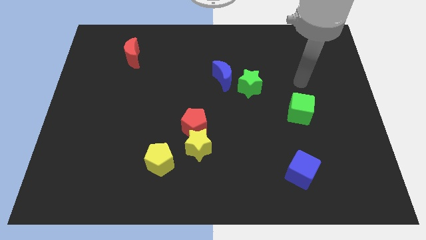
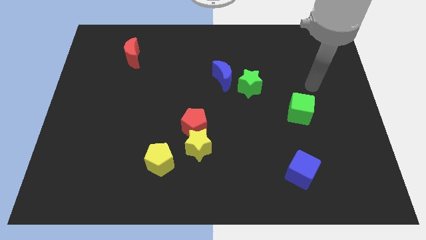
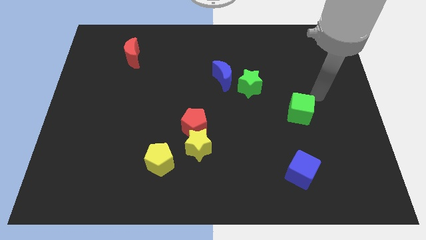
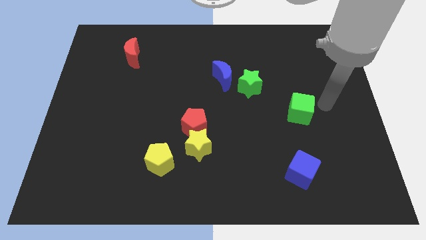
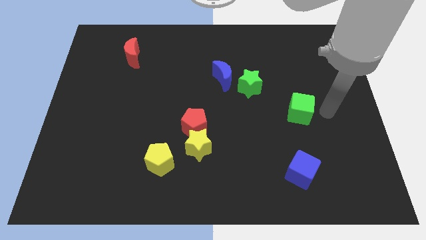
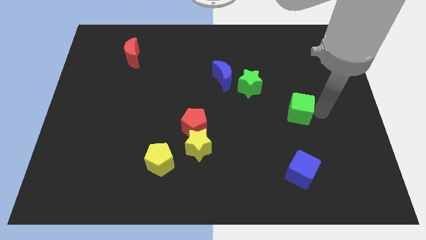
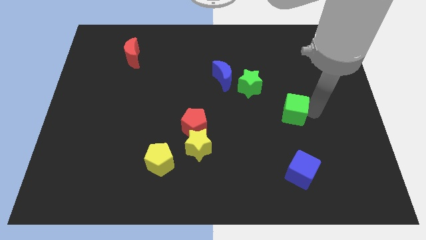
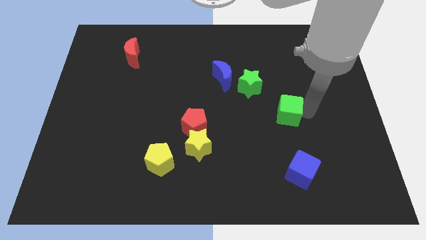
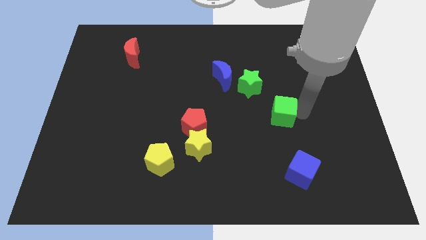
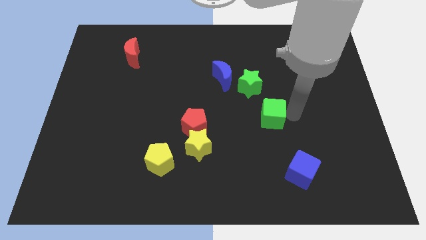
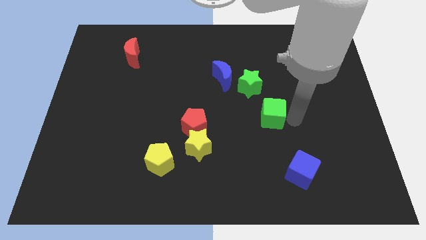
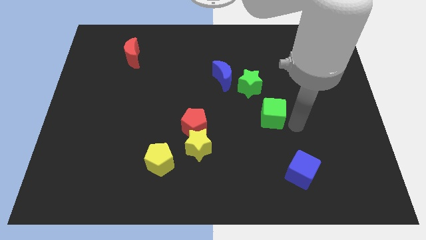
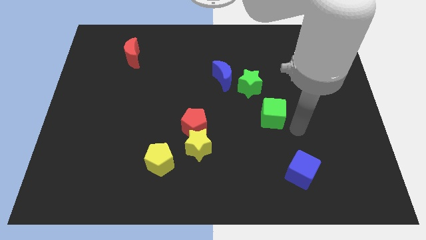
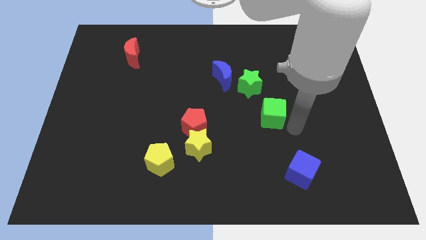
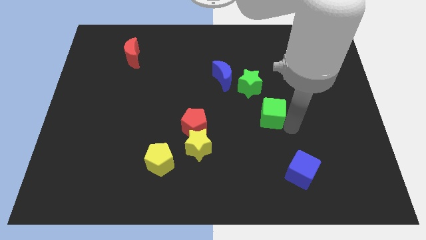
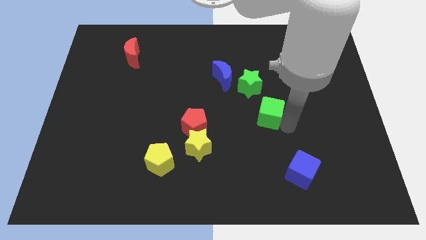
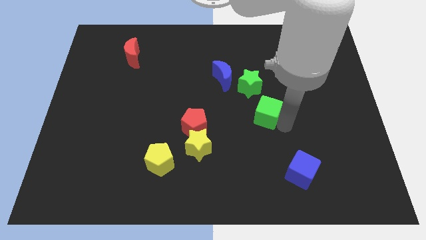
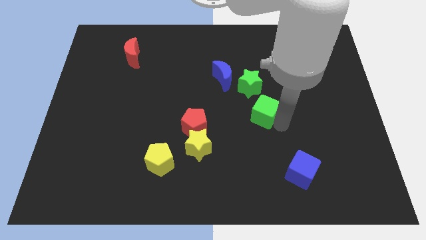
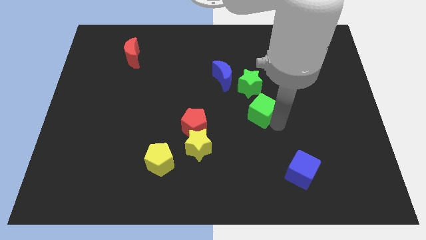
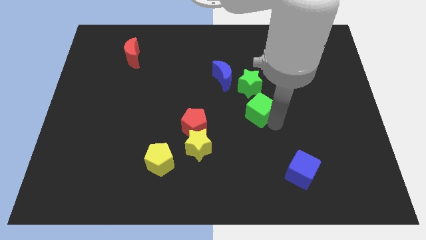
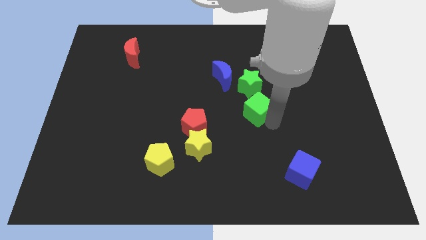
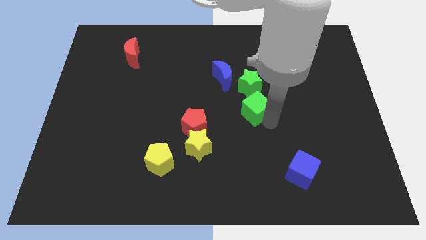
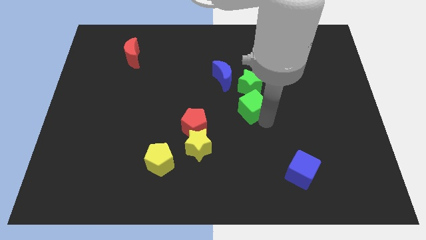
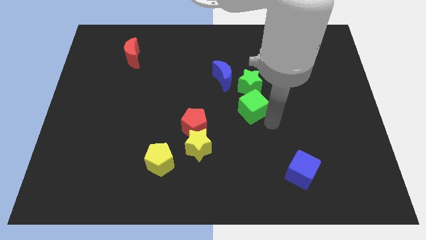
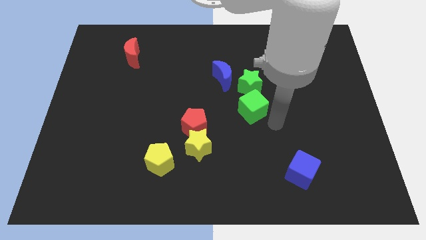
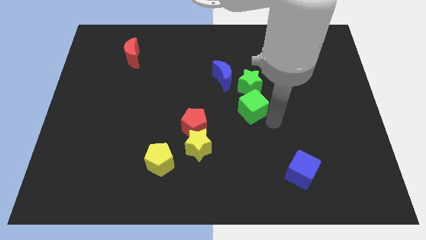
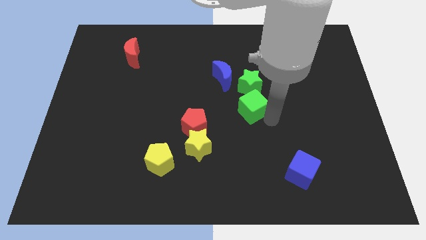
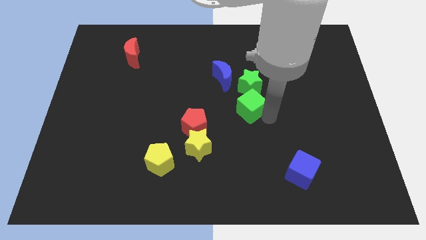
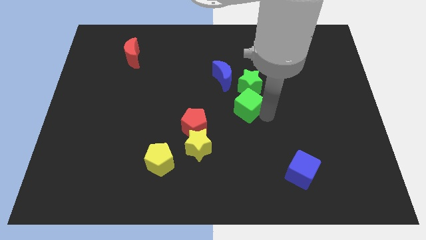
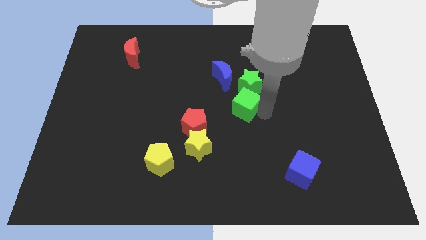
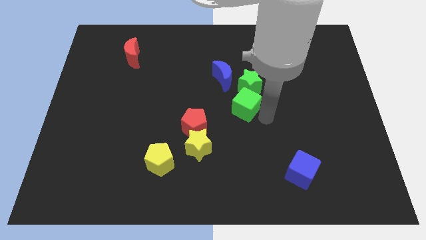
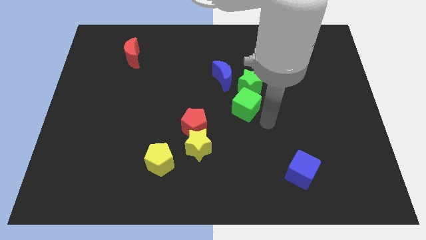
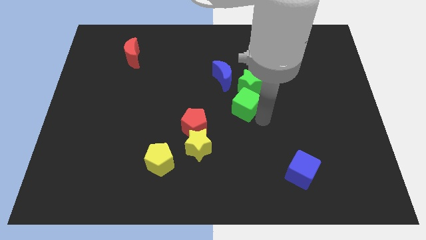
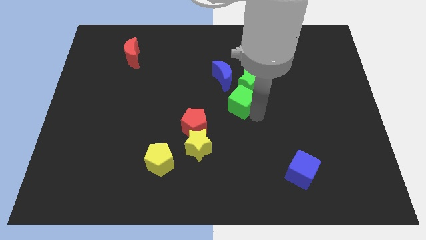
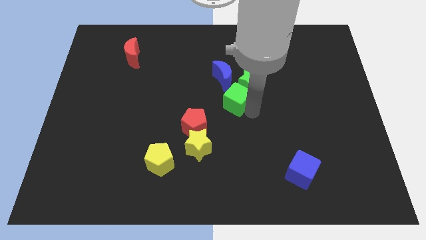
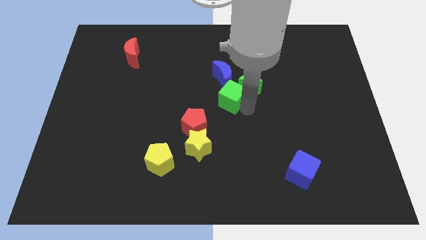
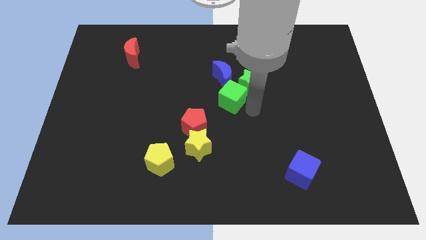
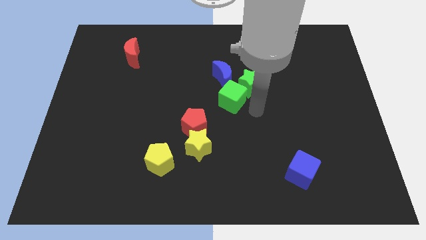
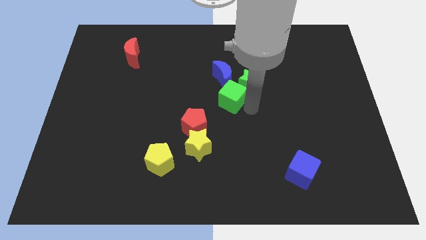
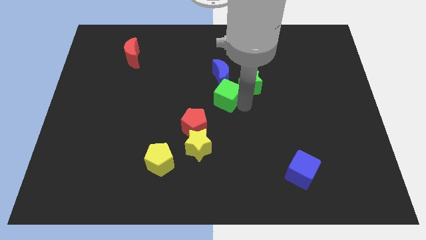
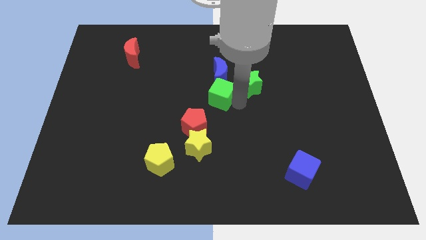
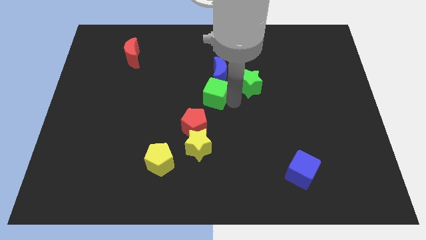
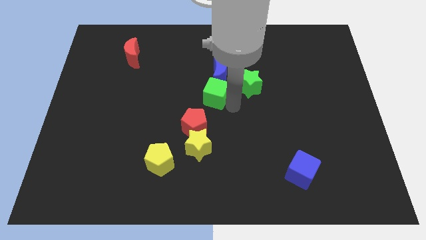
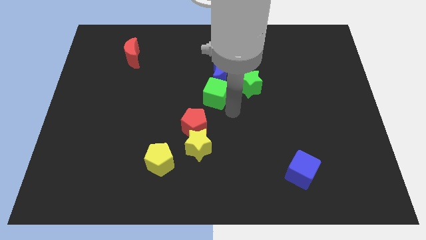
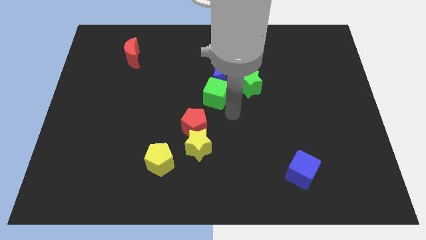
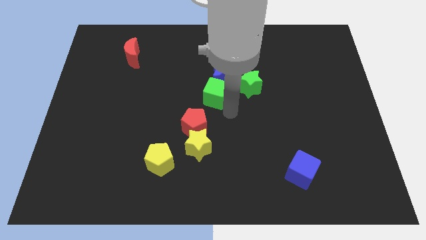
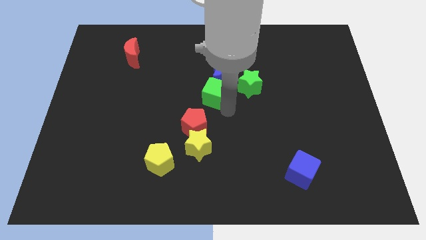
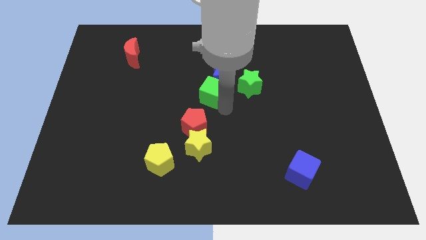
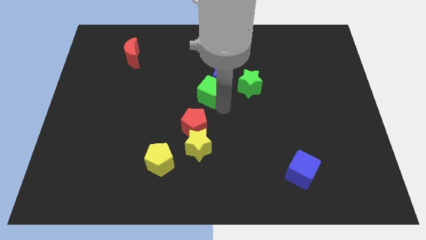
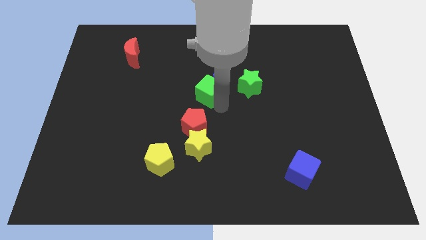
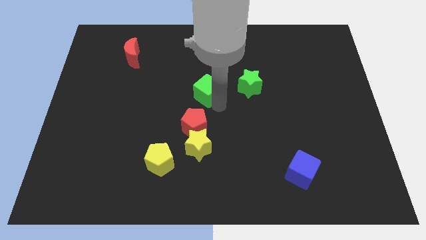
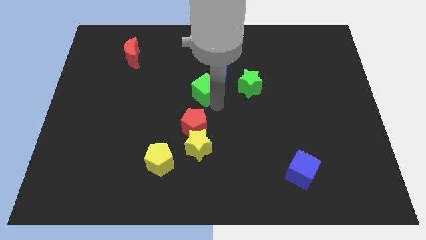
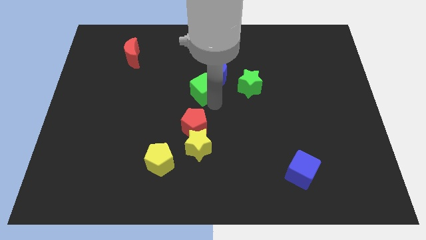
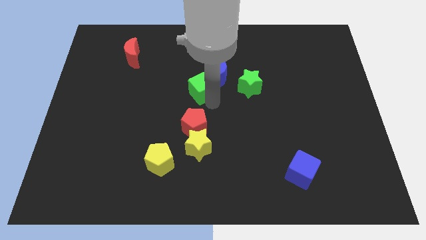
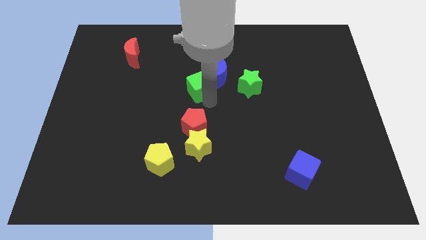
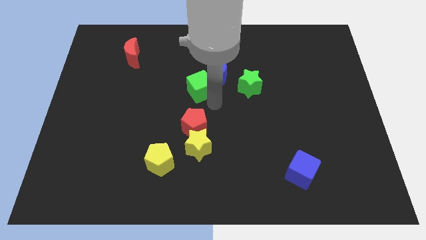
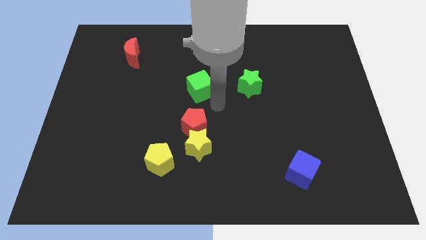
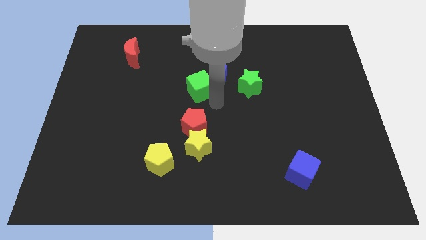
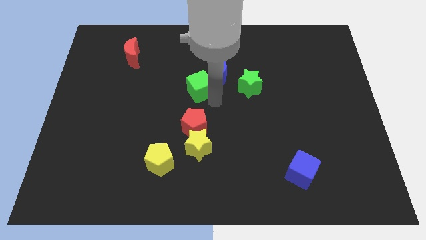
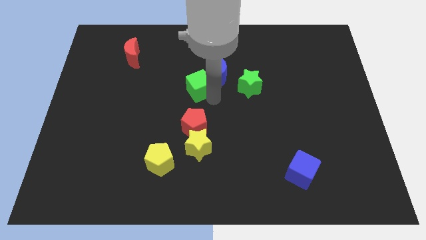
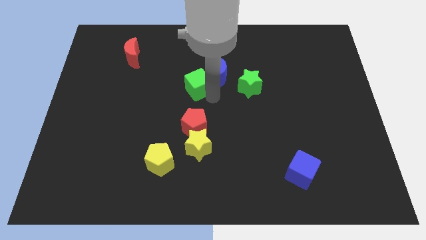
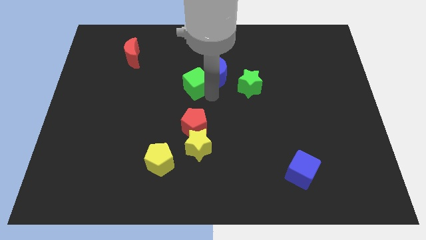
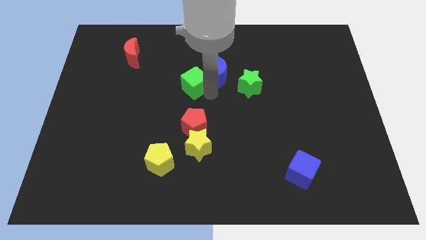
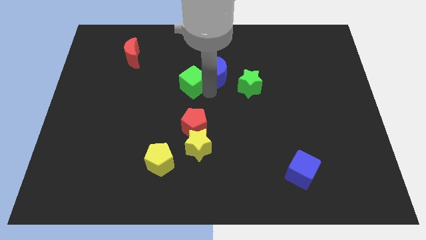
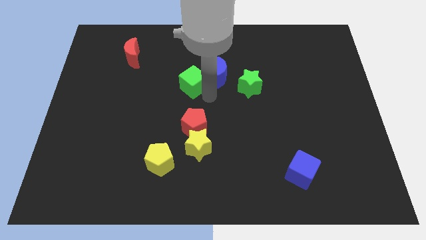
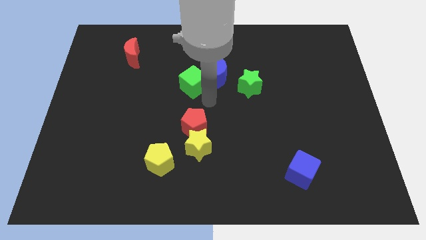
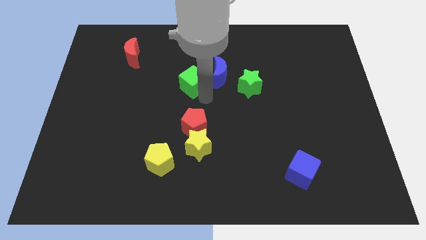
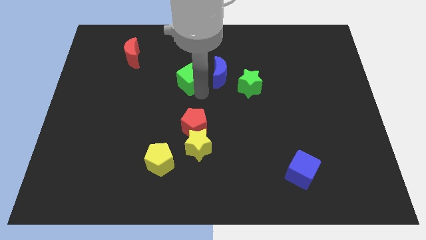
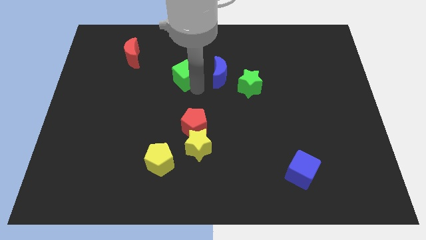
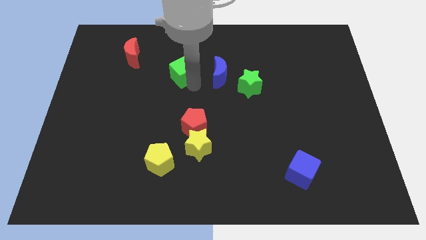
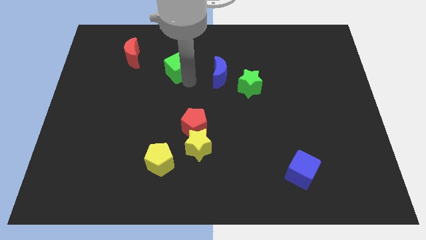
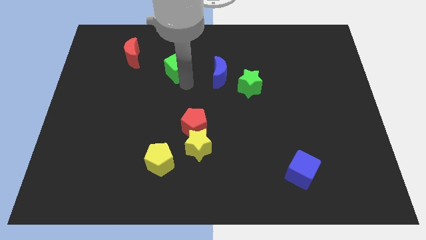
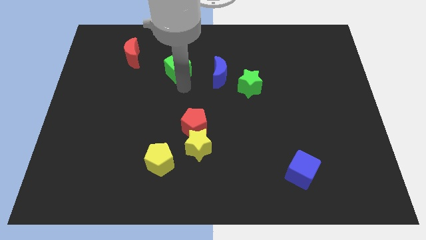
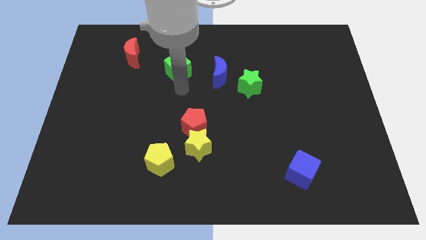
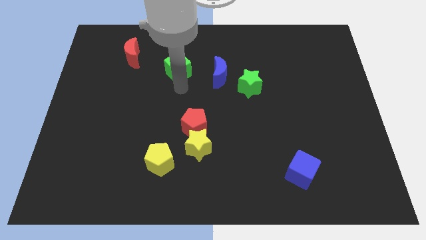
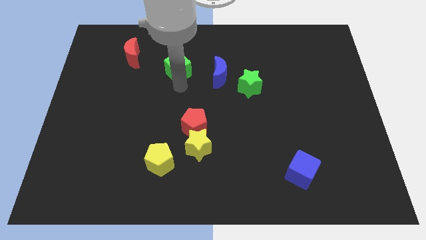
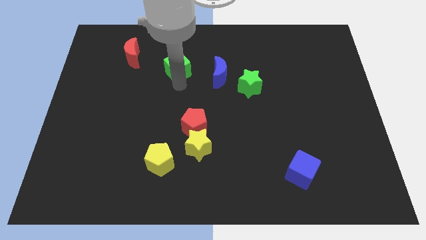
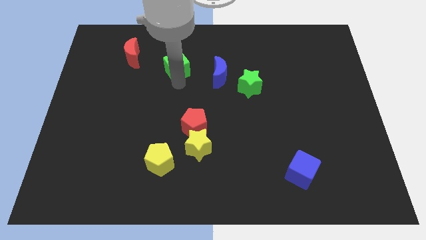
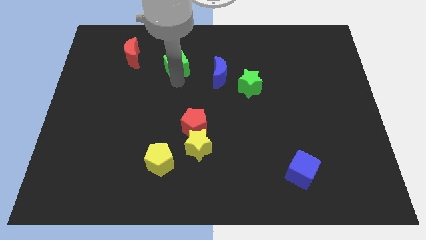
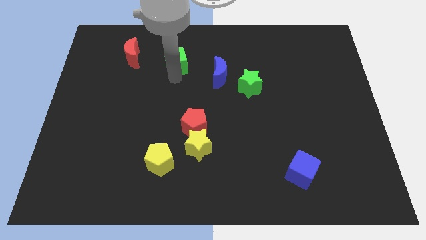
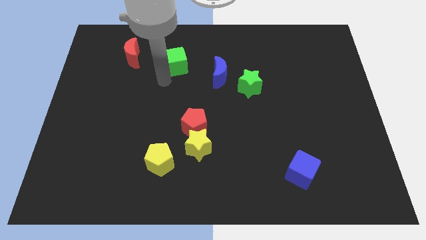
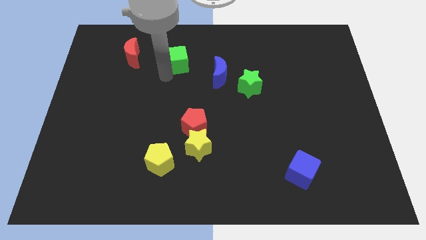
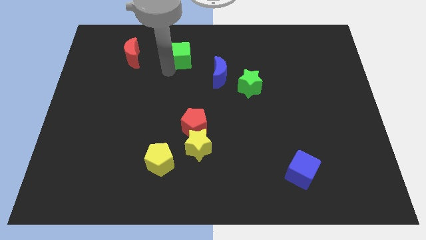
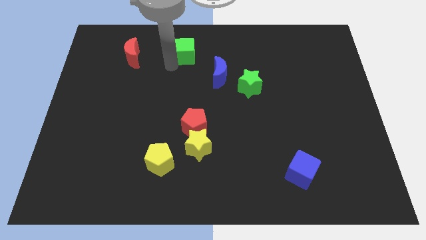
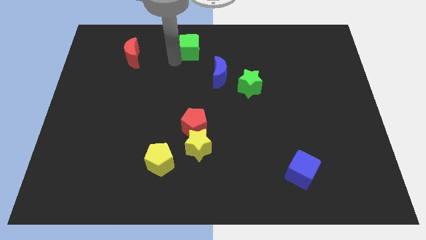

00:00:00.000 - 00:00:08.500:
slide the green cube to the top
